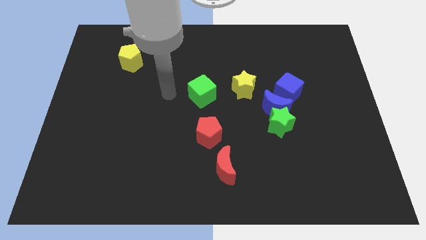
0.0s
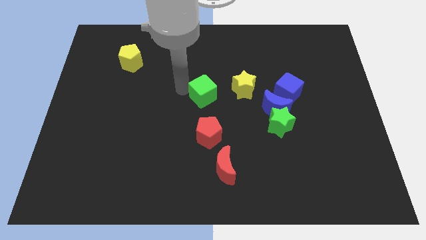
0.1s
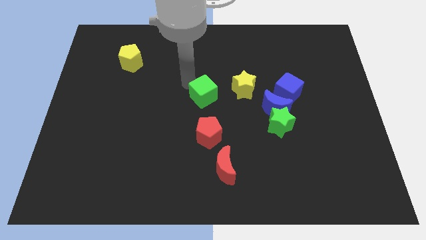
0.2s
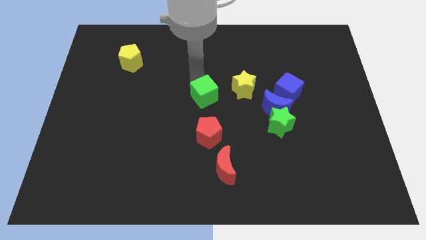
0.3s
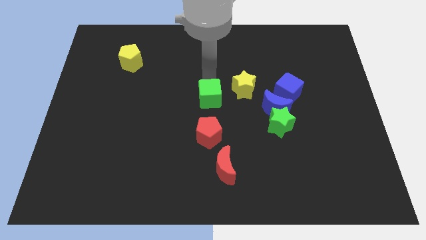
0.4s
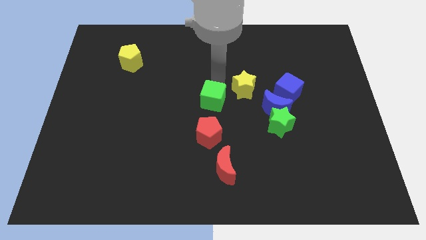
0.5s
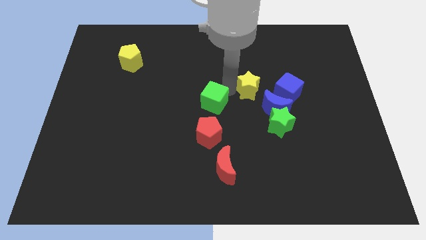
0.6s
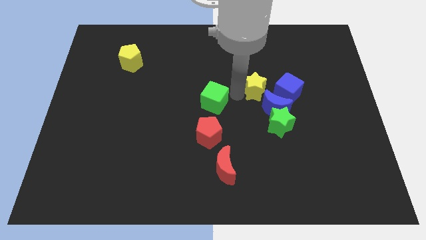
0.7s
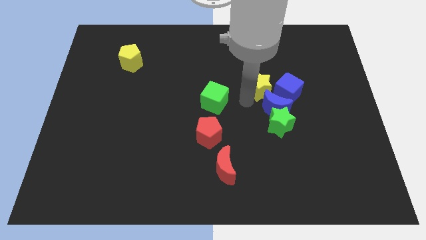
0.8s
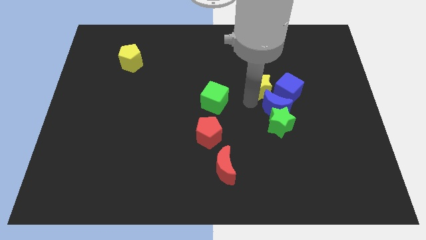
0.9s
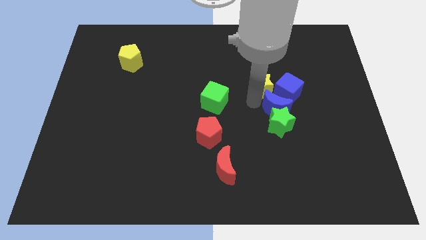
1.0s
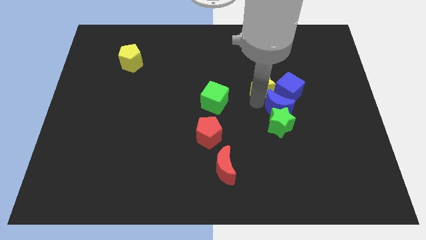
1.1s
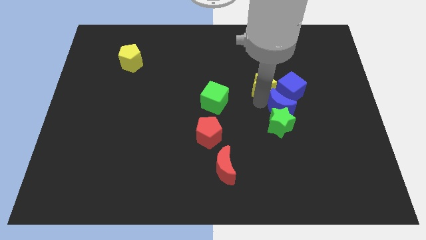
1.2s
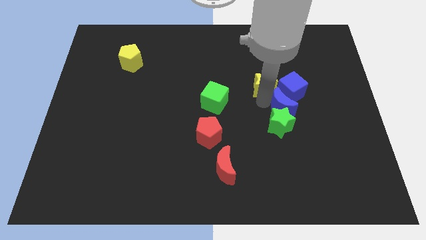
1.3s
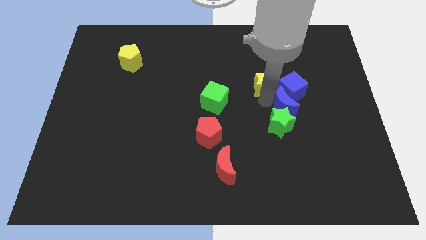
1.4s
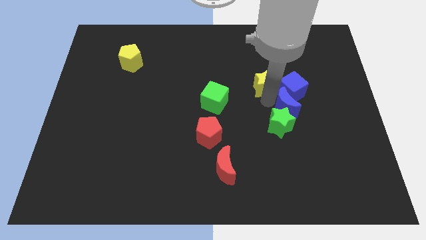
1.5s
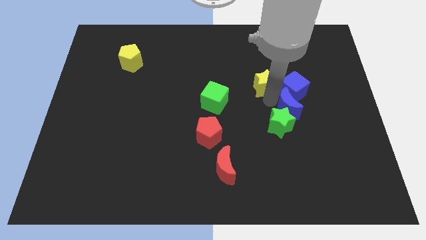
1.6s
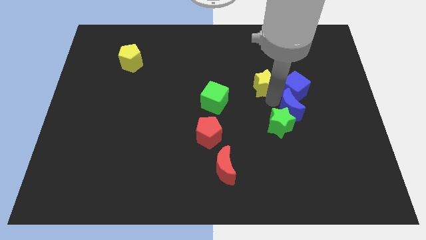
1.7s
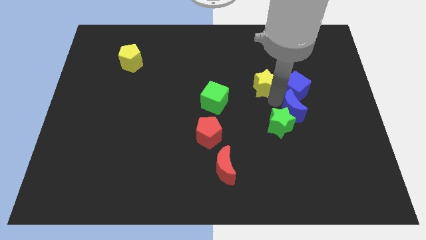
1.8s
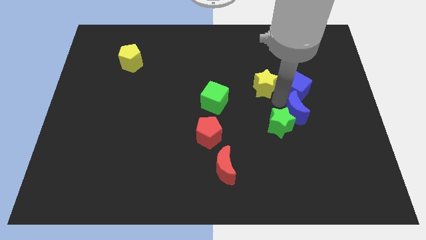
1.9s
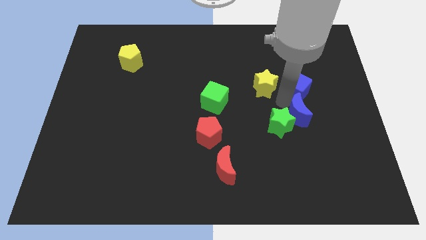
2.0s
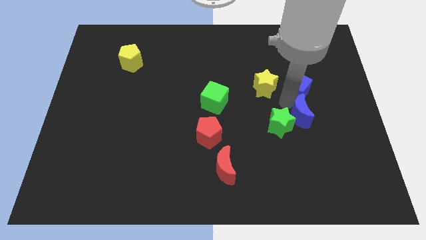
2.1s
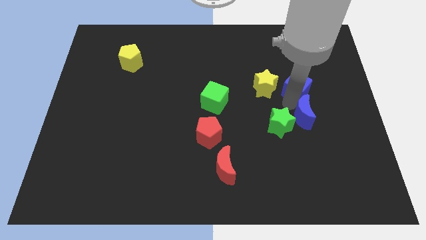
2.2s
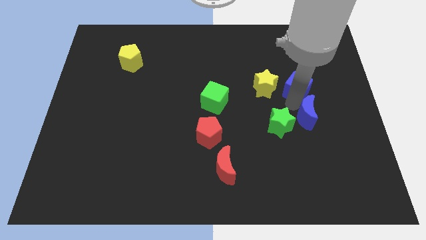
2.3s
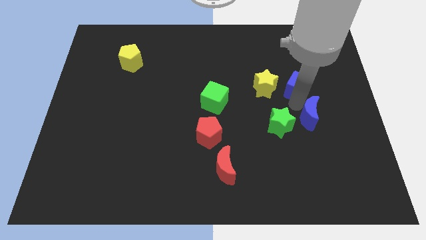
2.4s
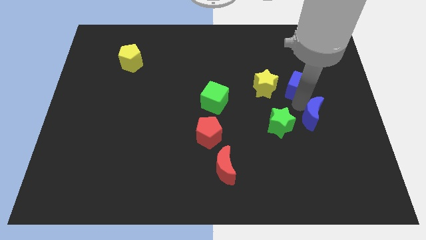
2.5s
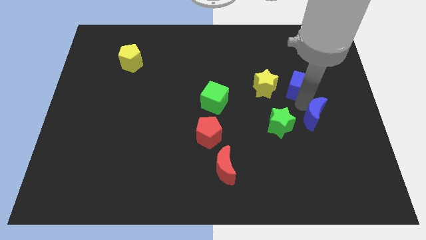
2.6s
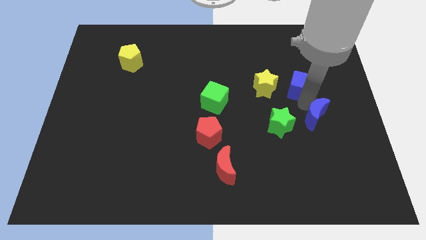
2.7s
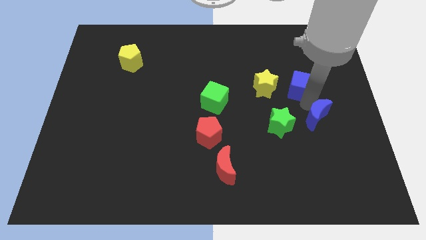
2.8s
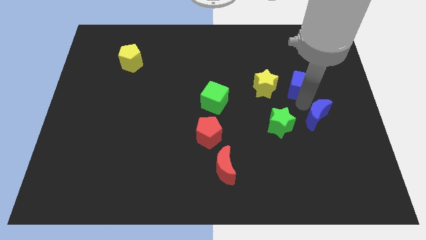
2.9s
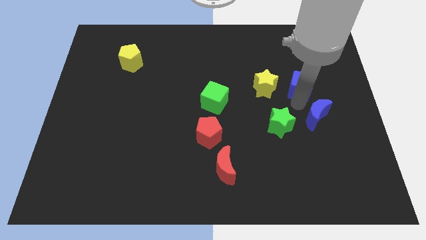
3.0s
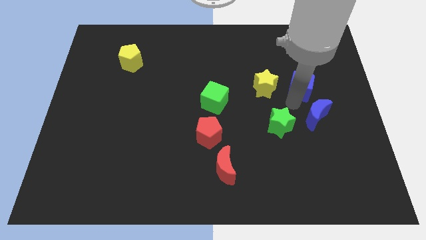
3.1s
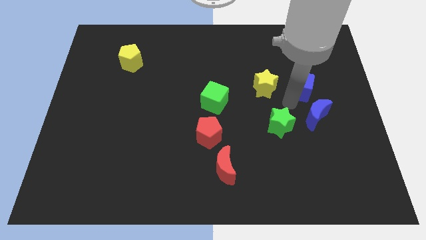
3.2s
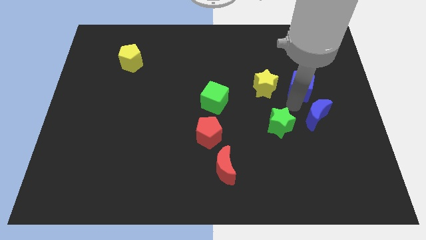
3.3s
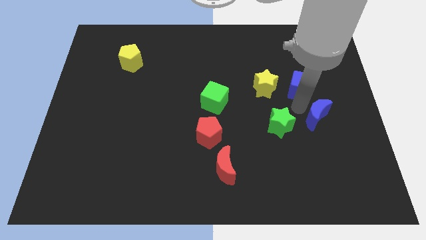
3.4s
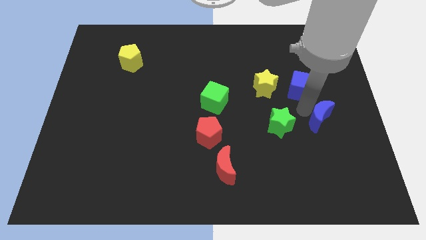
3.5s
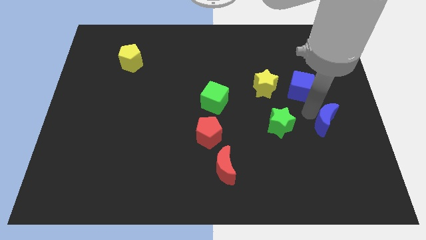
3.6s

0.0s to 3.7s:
separate the blue moon from the green star, blue cube, and yellow star

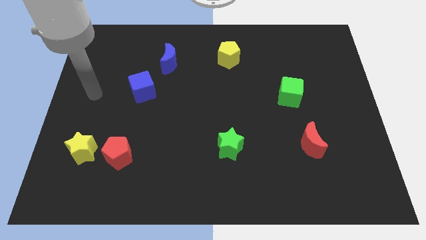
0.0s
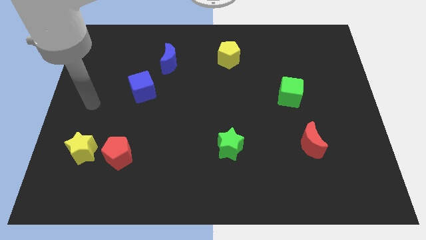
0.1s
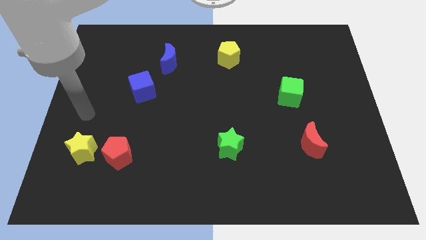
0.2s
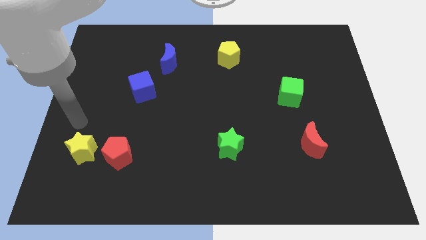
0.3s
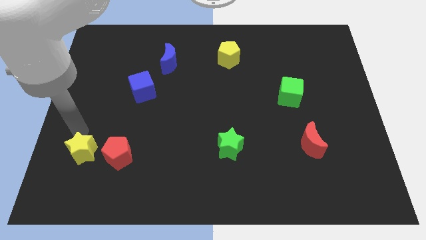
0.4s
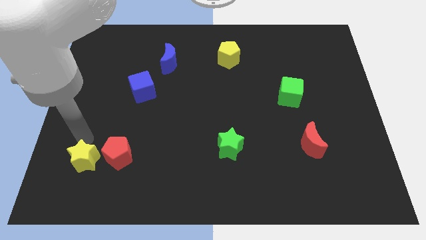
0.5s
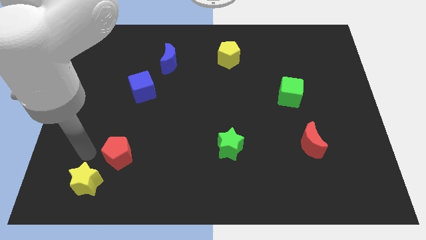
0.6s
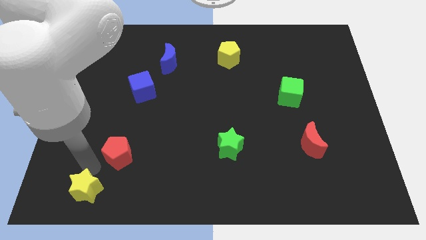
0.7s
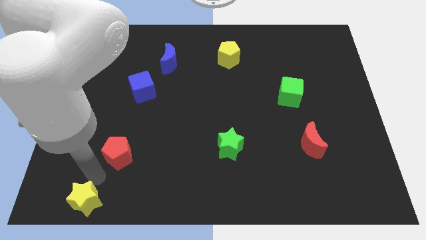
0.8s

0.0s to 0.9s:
separate the red pentagon from the yellow star

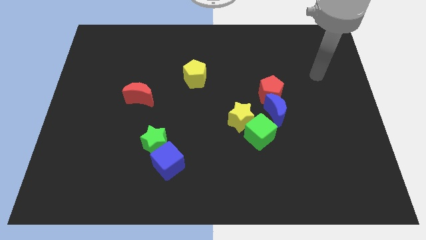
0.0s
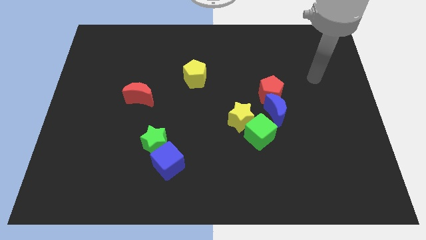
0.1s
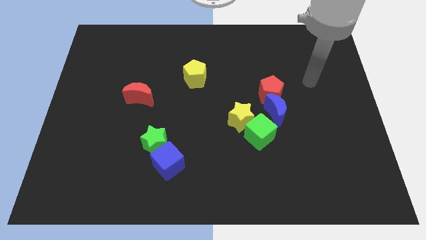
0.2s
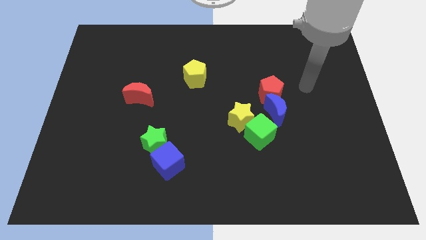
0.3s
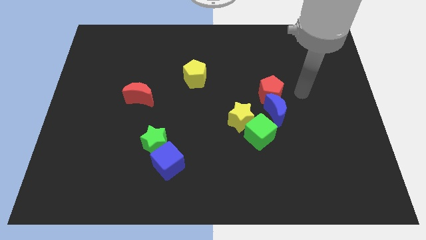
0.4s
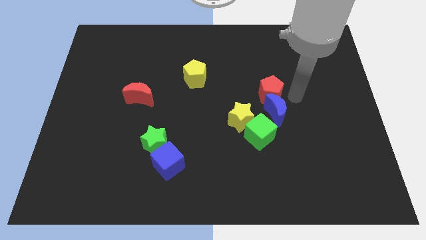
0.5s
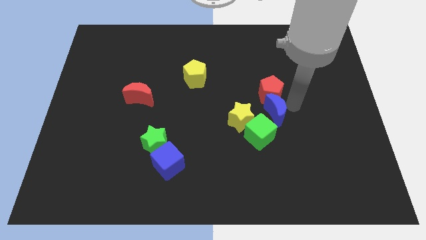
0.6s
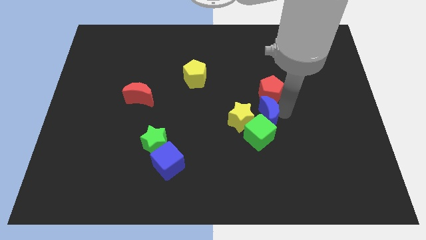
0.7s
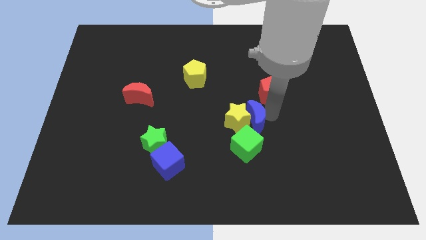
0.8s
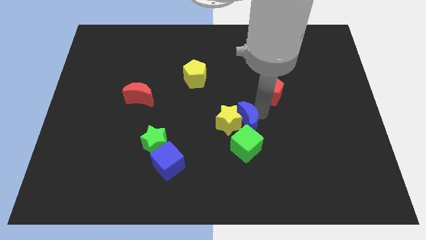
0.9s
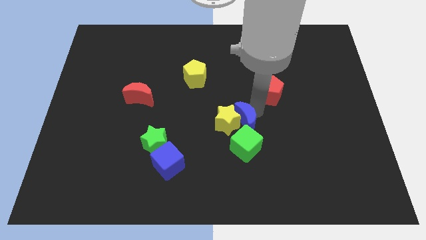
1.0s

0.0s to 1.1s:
pull the red pentagon apart from the blue moon

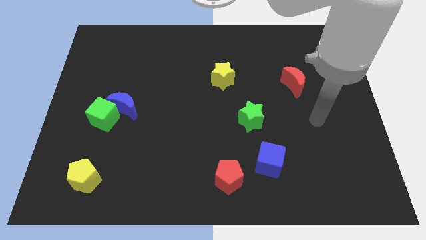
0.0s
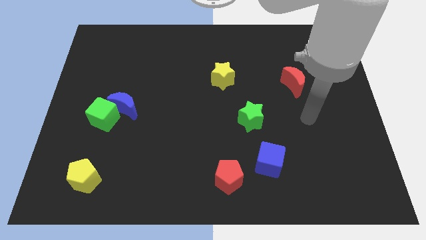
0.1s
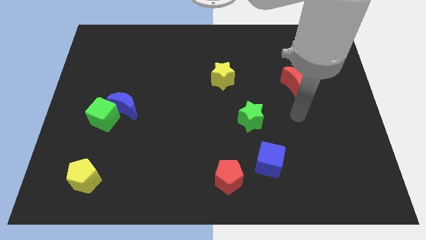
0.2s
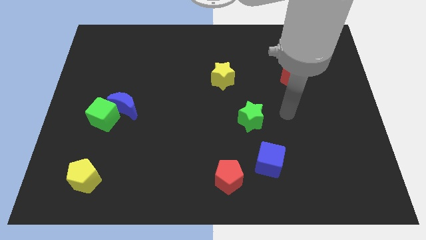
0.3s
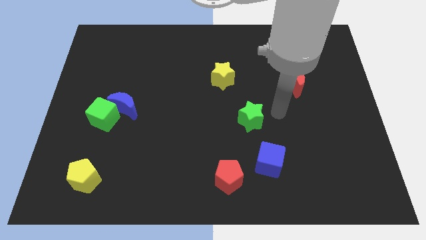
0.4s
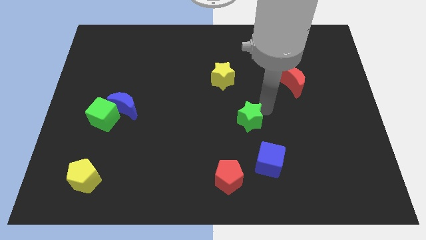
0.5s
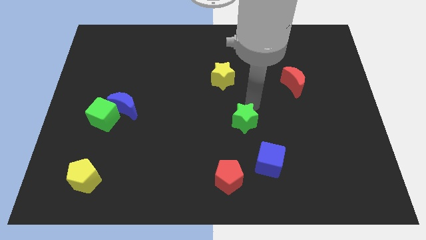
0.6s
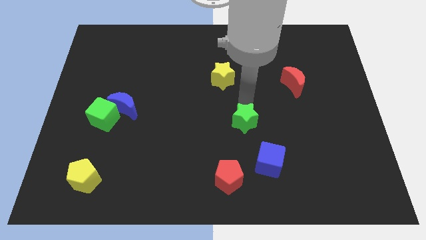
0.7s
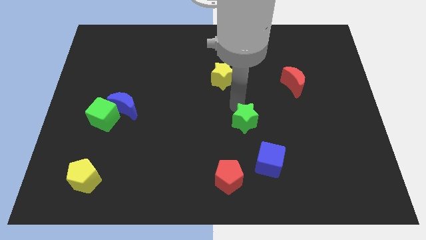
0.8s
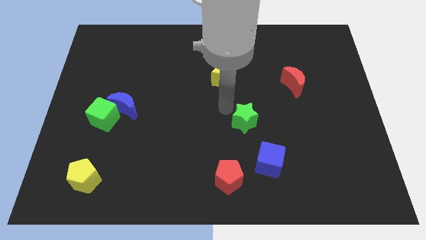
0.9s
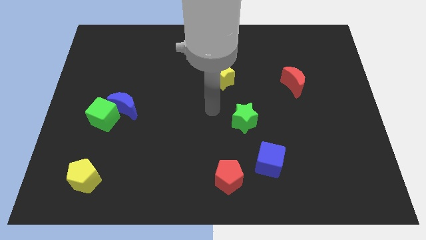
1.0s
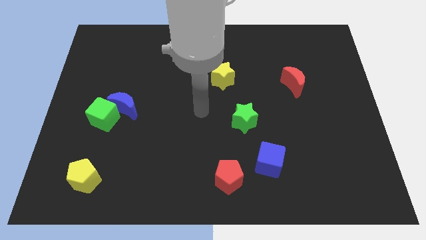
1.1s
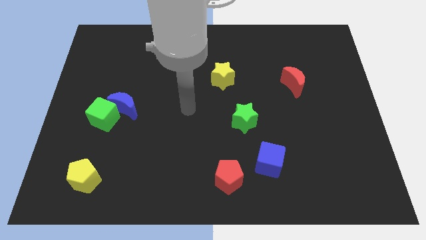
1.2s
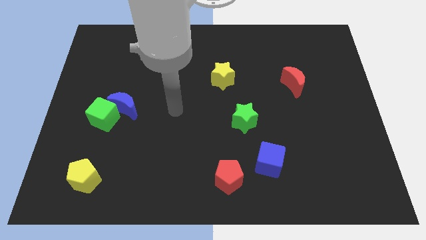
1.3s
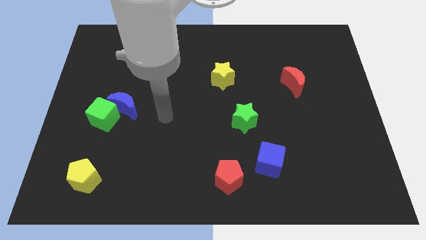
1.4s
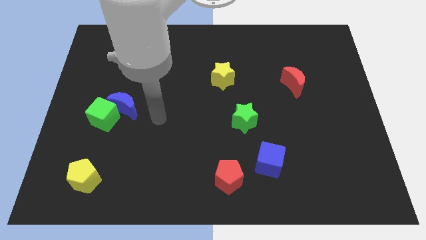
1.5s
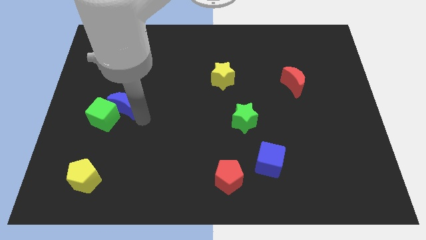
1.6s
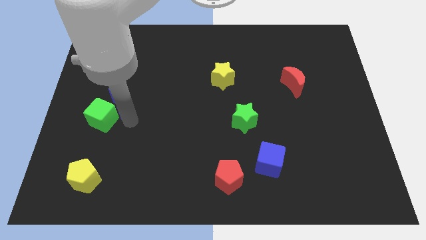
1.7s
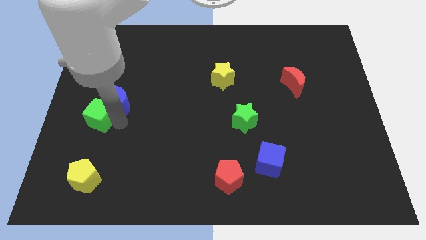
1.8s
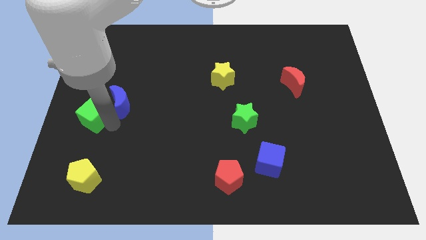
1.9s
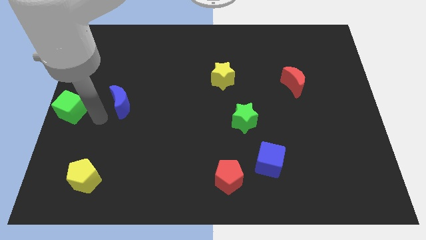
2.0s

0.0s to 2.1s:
separate the blue moon from the green cube

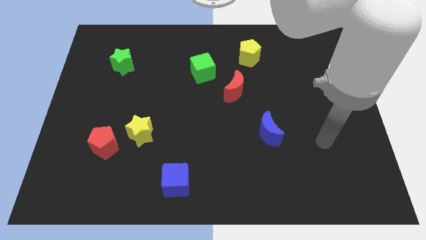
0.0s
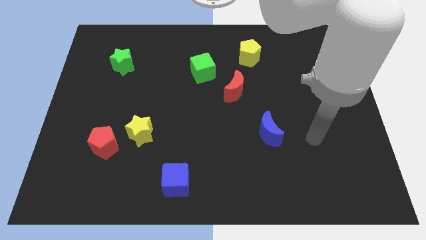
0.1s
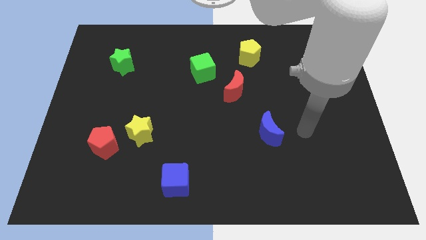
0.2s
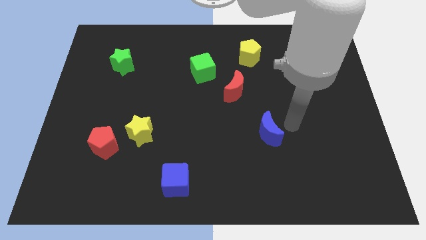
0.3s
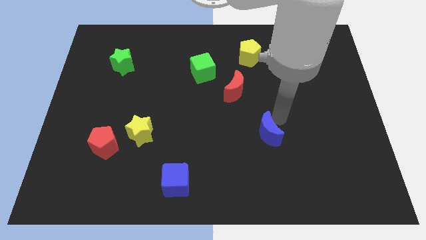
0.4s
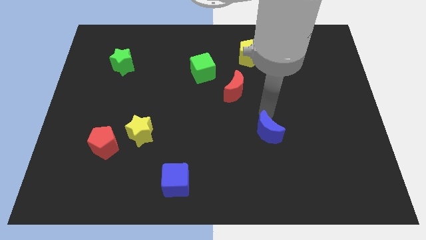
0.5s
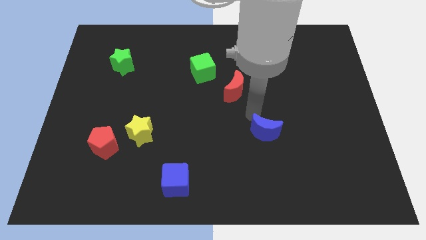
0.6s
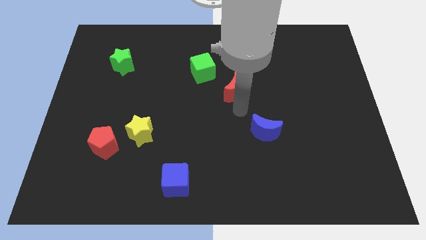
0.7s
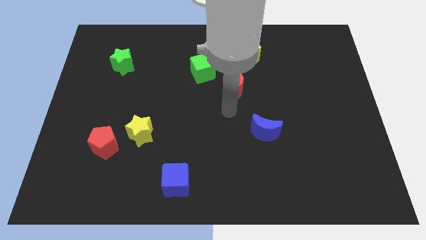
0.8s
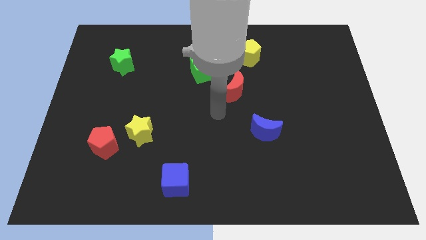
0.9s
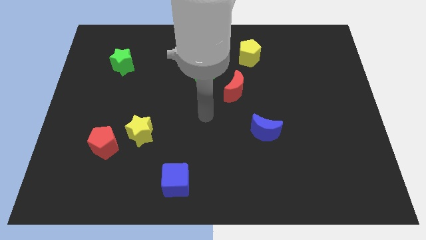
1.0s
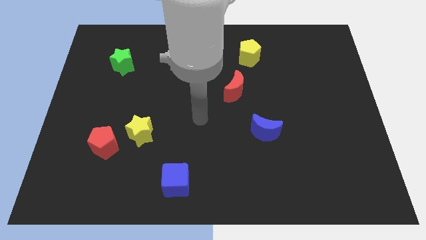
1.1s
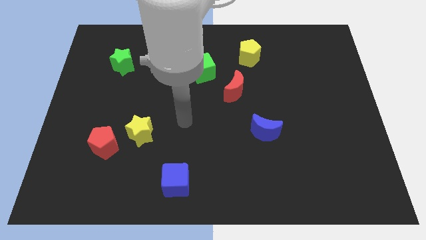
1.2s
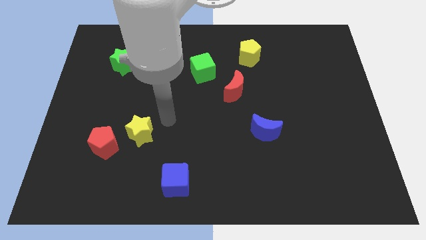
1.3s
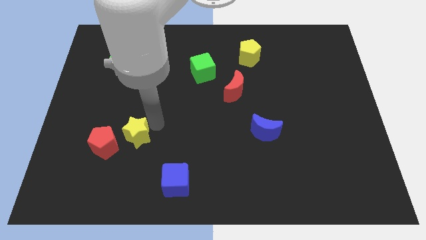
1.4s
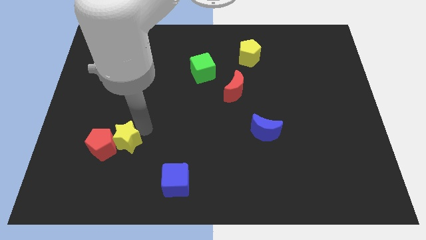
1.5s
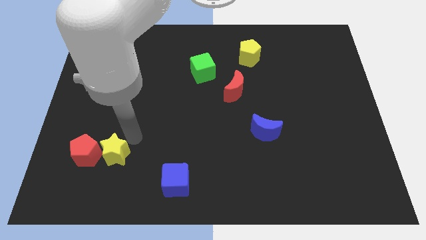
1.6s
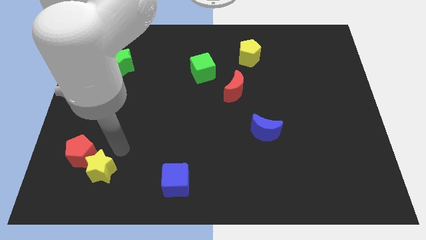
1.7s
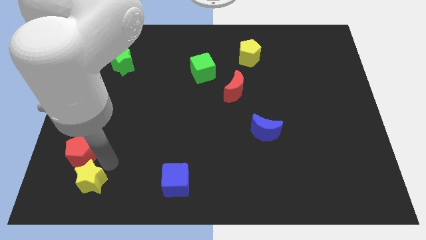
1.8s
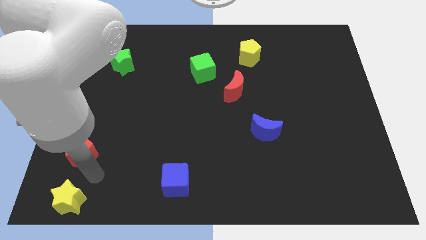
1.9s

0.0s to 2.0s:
pull the red pentagon apart from the yellow star
